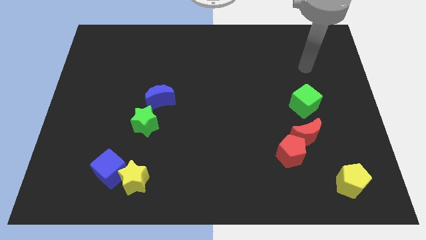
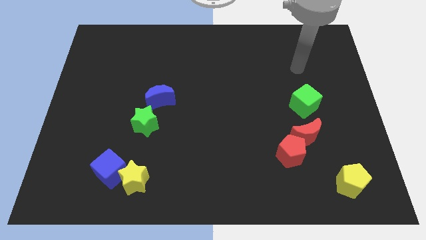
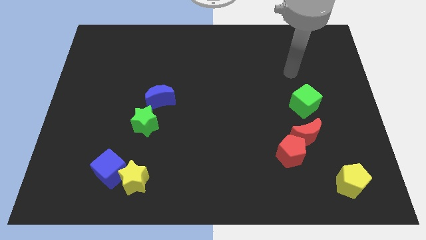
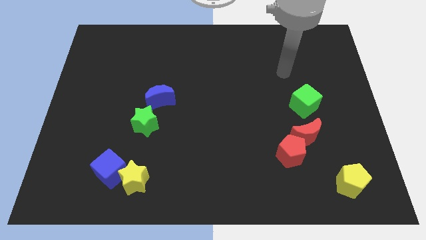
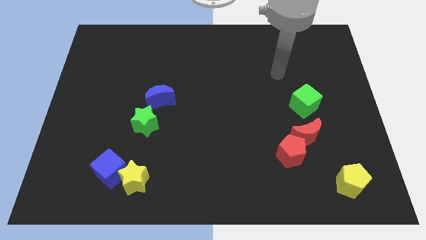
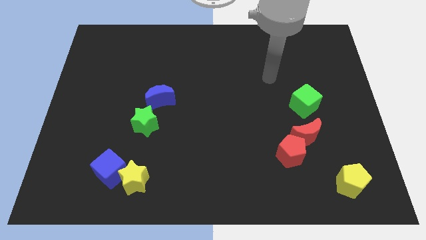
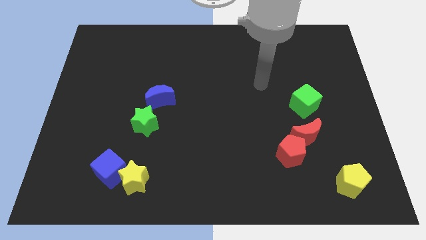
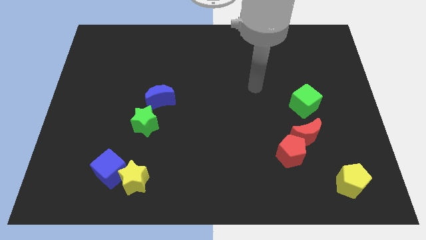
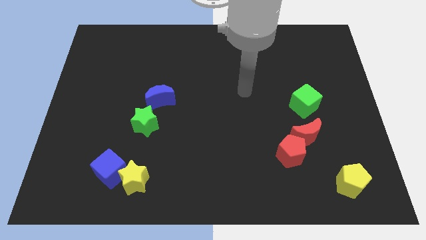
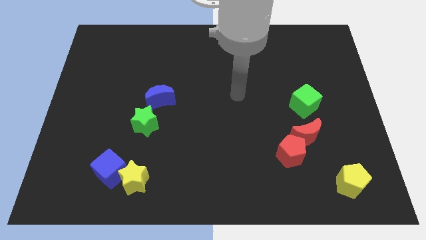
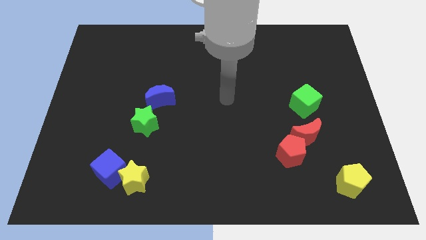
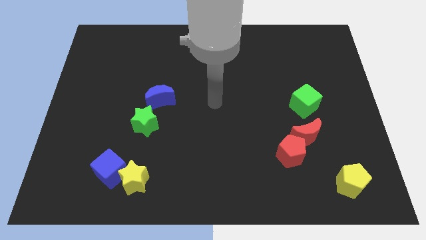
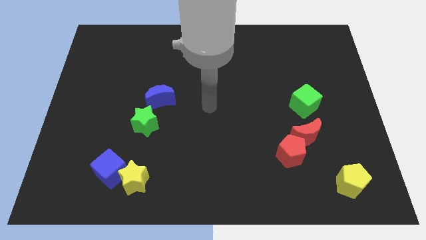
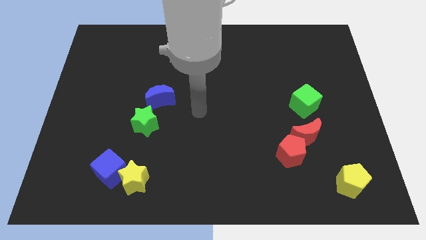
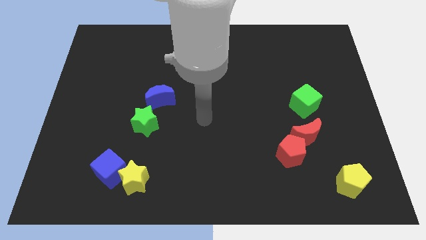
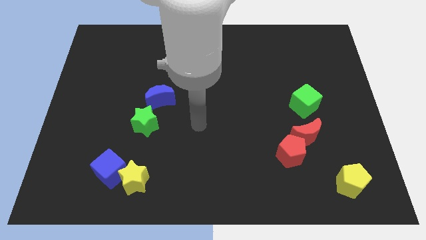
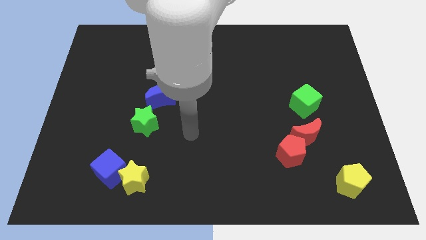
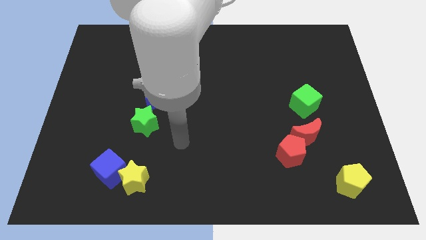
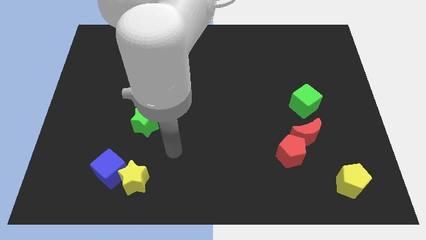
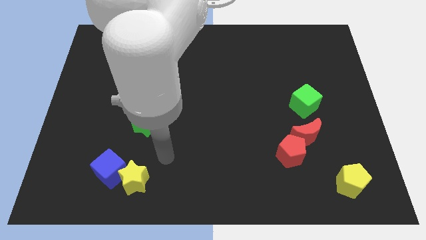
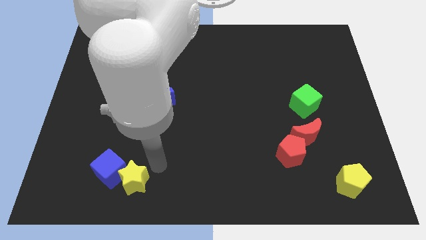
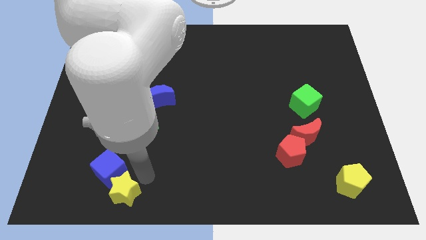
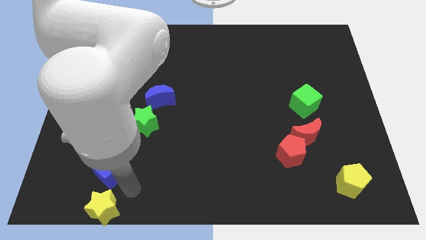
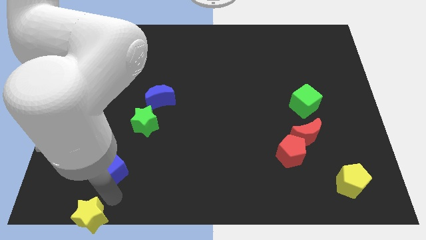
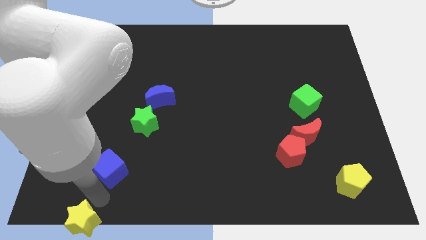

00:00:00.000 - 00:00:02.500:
separate the blue cube from the yellow star

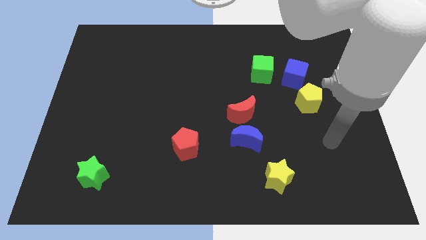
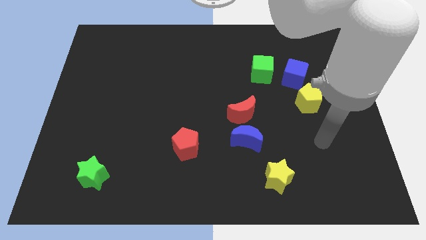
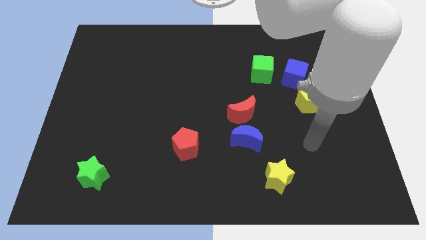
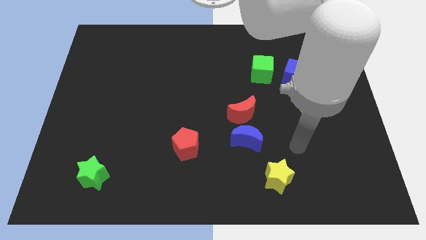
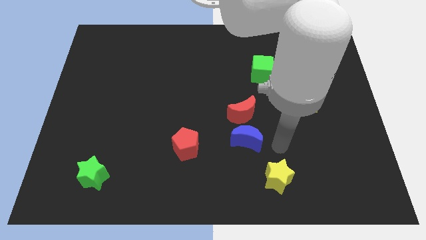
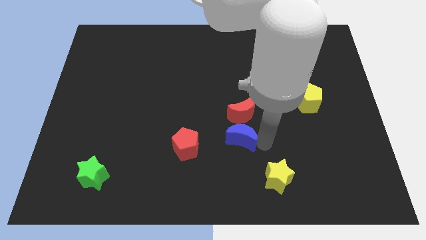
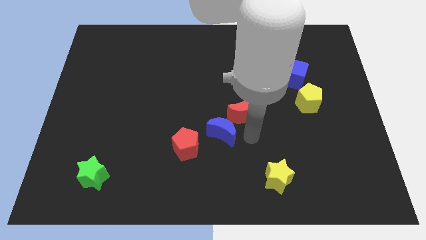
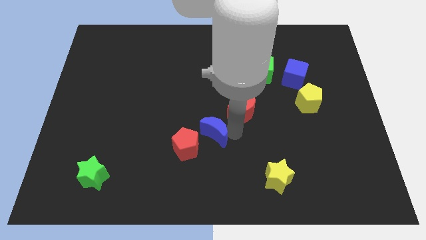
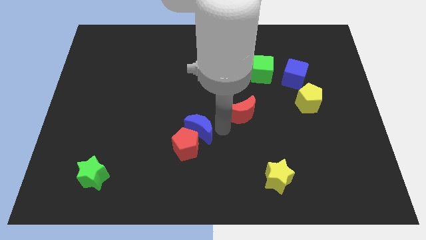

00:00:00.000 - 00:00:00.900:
separate the red moon from the blue moon

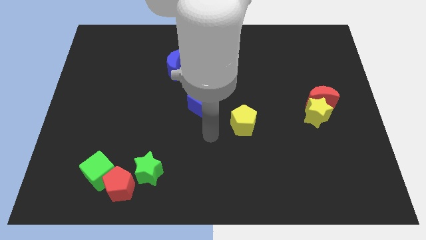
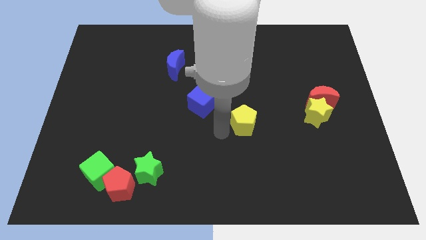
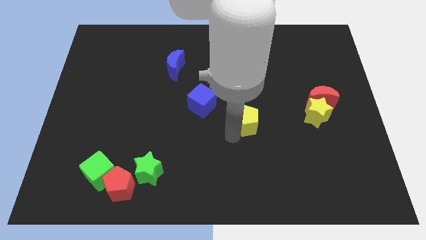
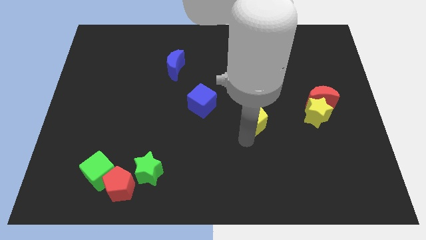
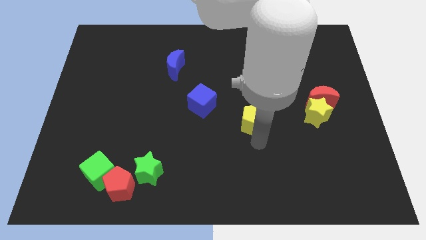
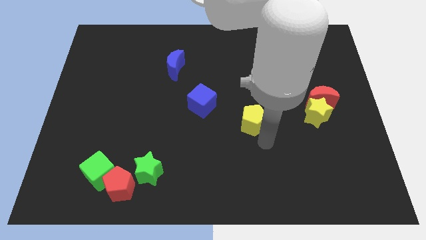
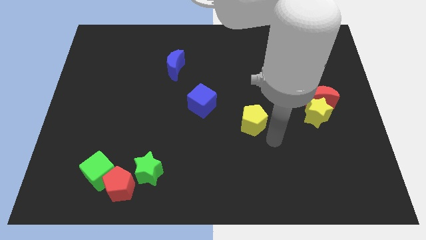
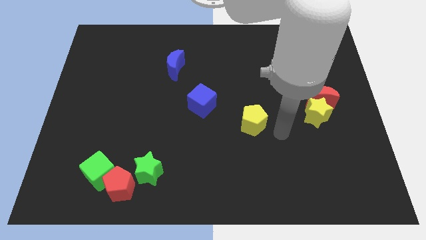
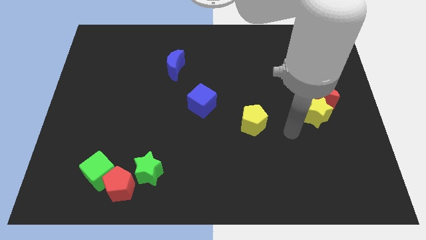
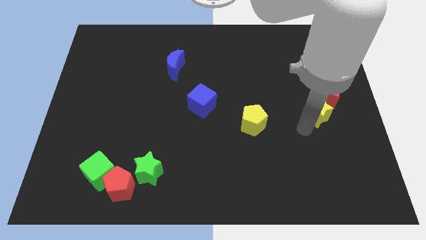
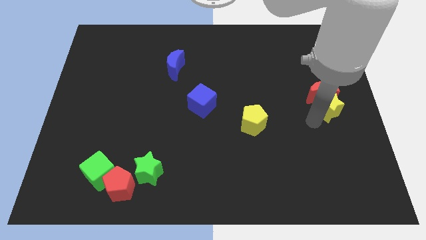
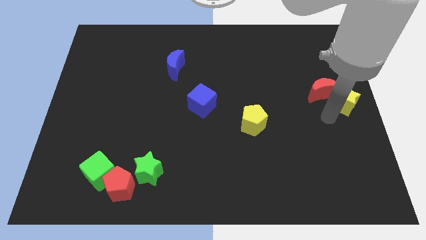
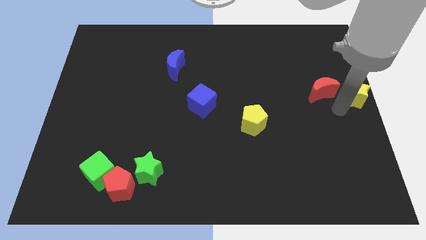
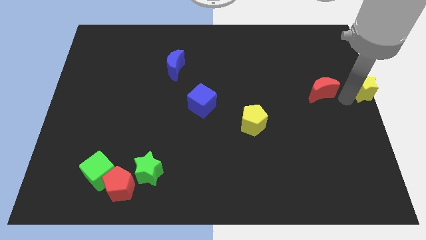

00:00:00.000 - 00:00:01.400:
separate the red moon from the yellow star

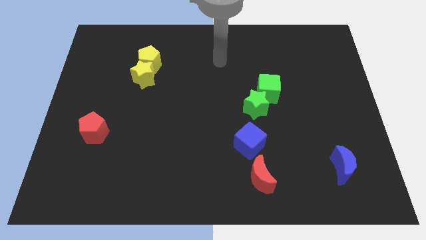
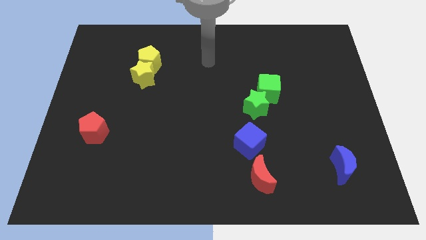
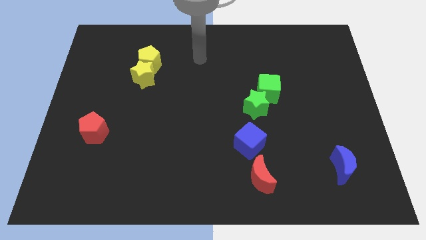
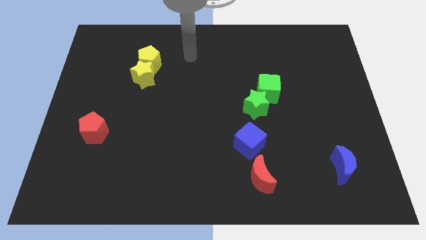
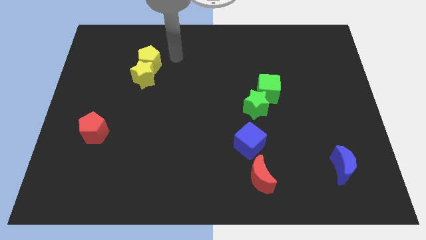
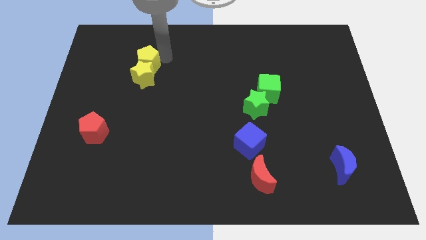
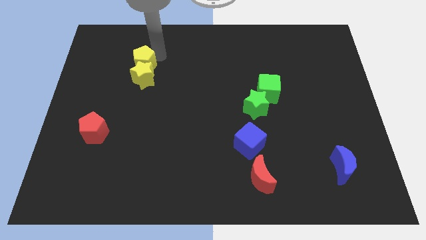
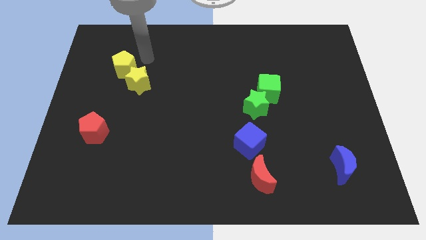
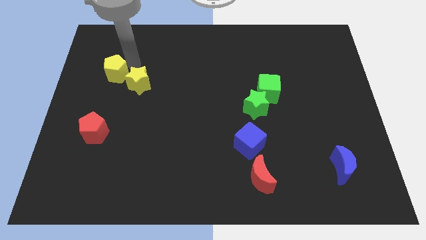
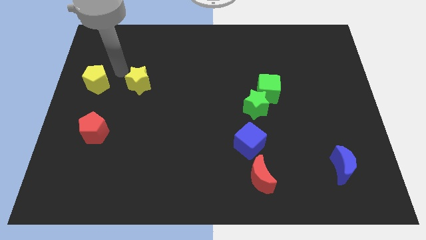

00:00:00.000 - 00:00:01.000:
move the yellow star away from the yellow pentagon

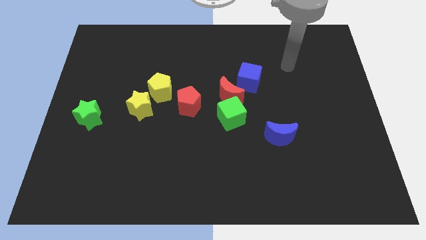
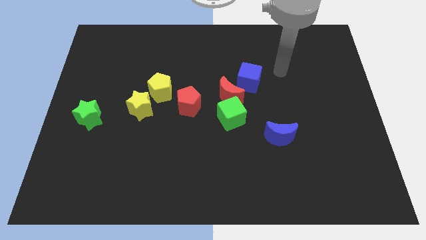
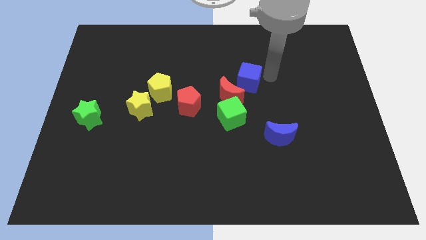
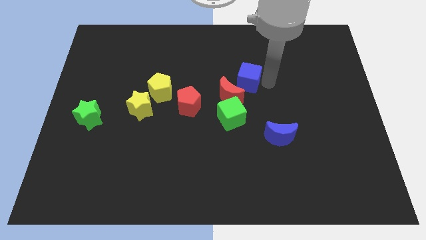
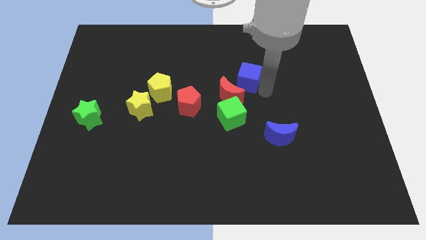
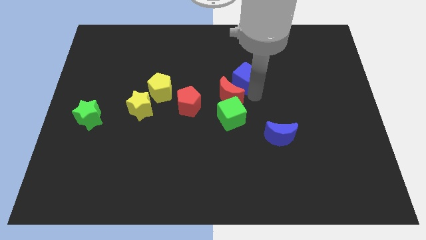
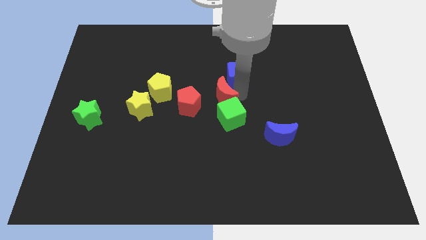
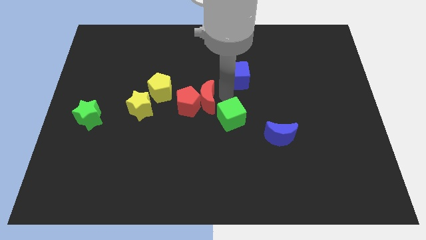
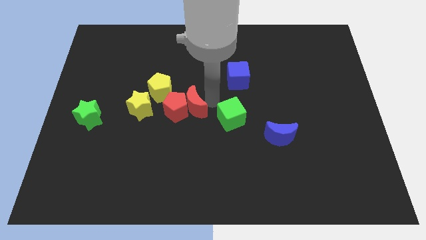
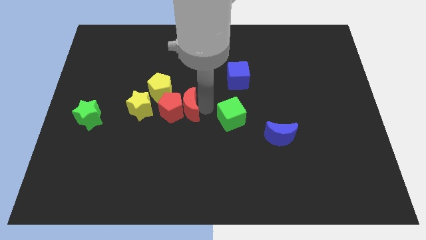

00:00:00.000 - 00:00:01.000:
pull the green cube apart from the red moon

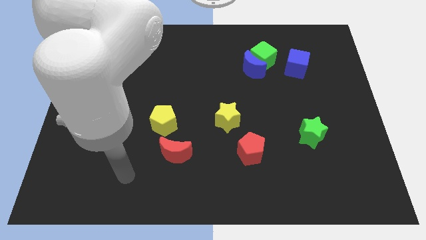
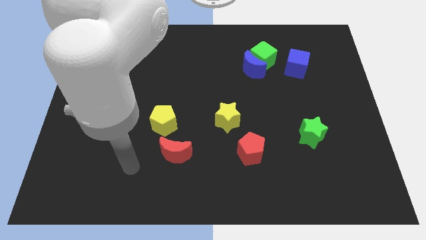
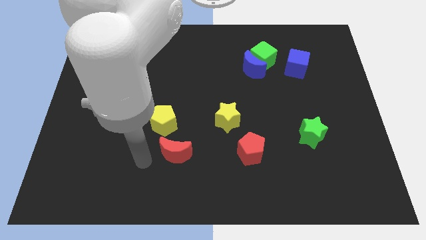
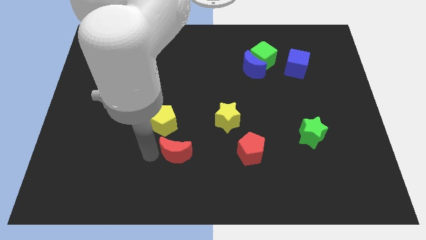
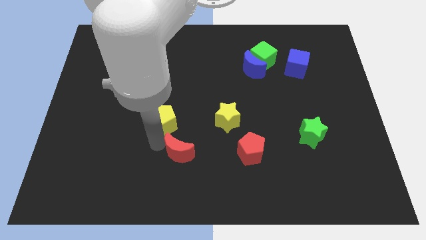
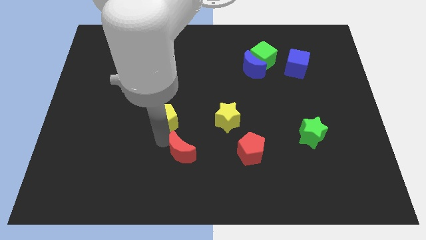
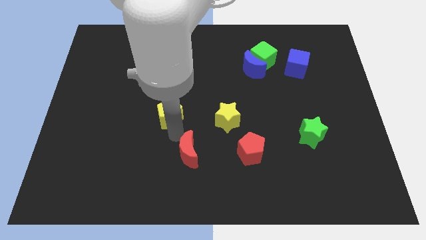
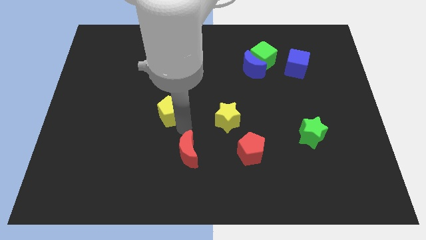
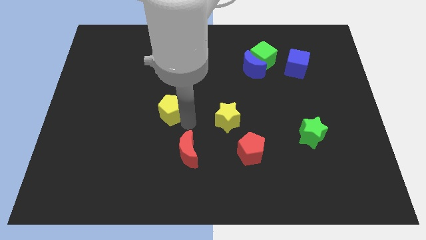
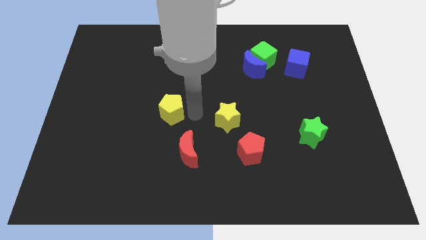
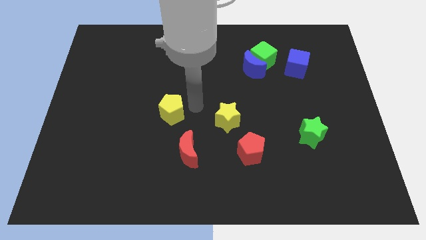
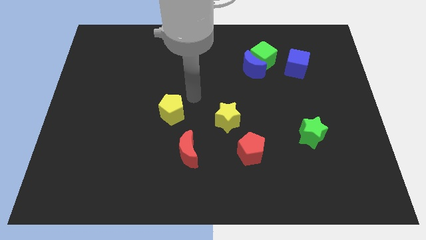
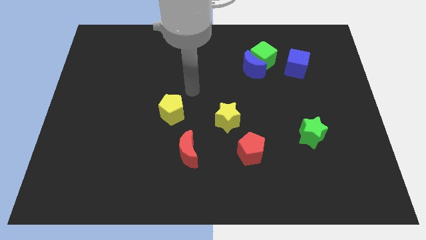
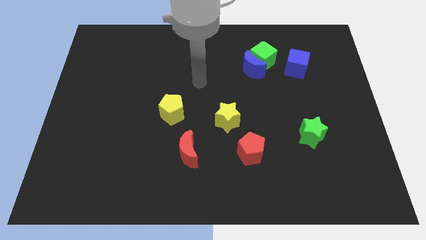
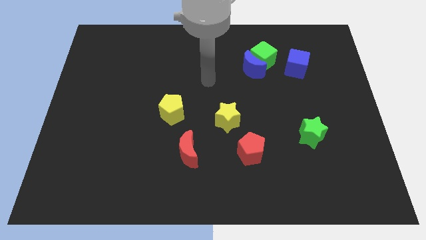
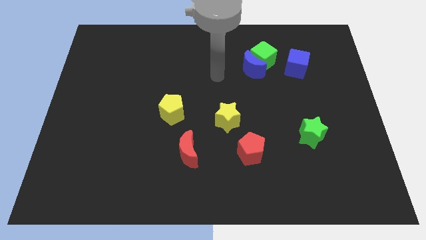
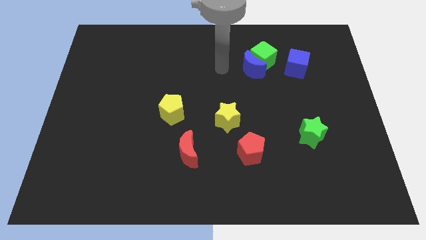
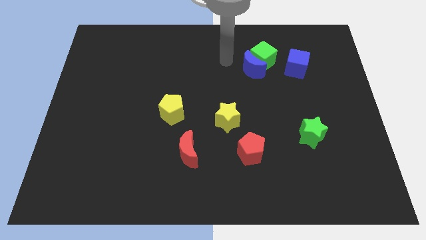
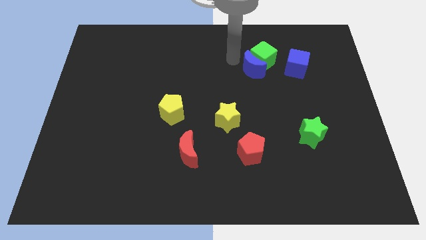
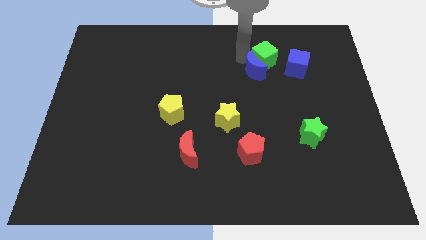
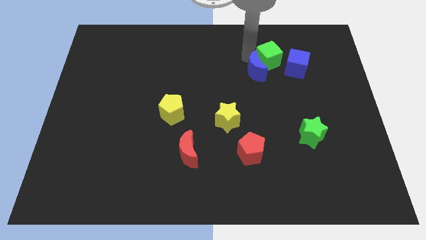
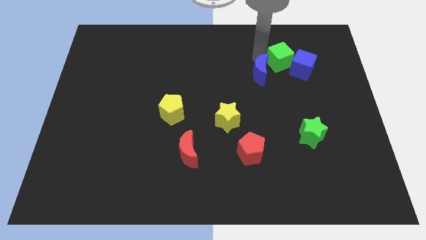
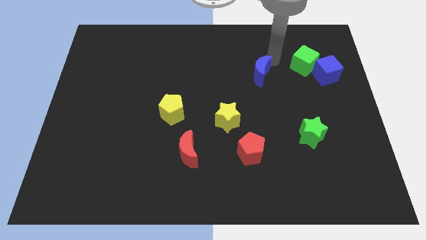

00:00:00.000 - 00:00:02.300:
separate the blue moon from the green cube
